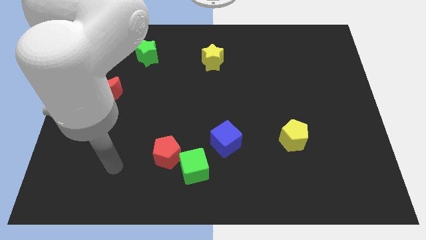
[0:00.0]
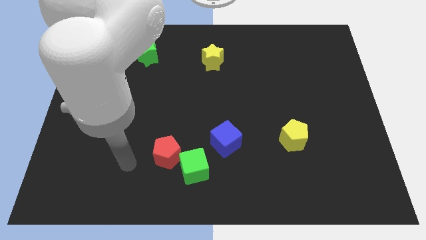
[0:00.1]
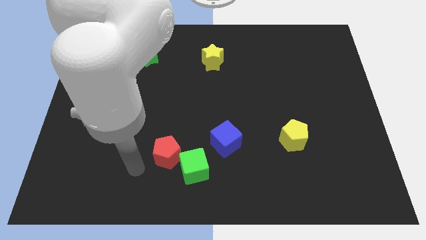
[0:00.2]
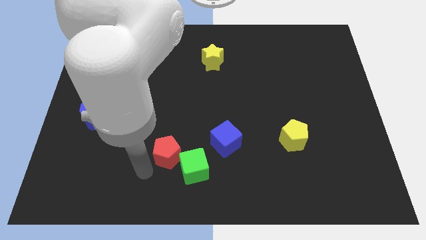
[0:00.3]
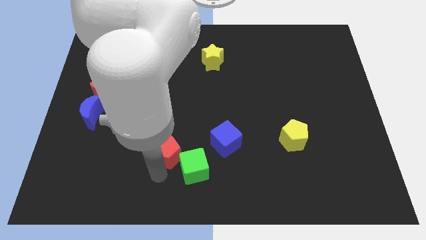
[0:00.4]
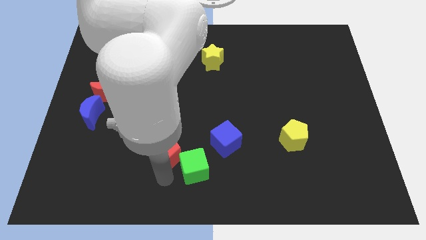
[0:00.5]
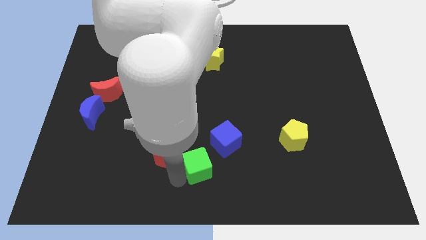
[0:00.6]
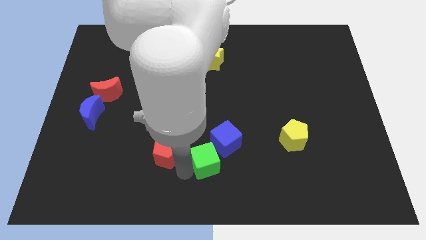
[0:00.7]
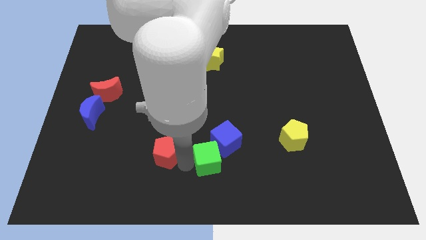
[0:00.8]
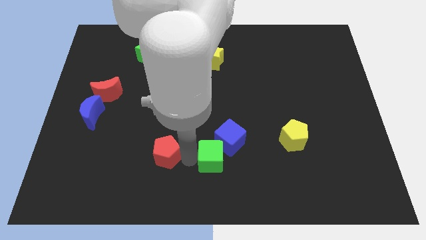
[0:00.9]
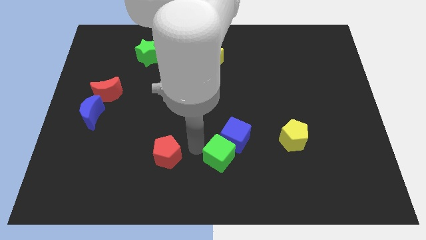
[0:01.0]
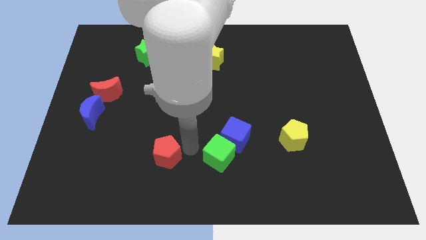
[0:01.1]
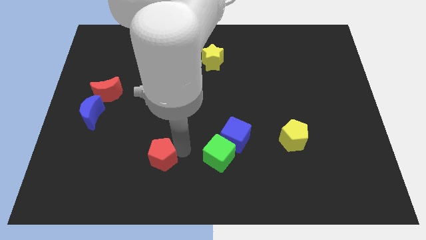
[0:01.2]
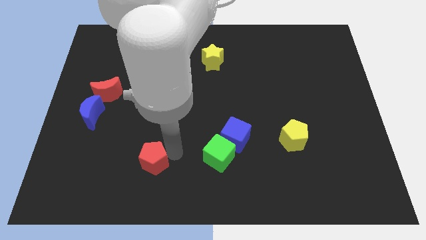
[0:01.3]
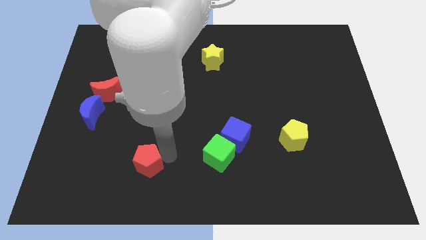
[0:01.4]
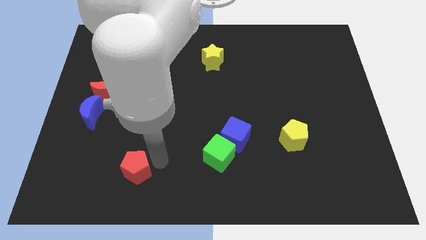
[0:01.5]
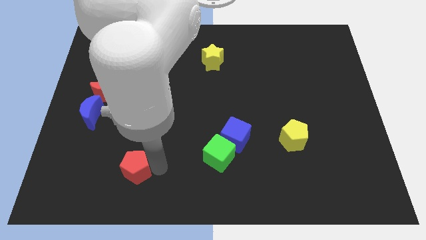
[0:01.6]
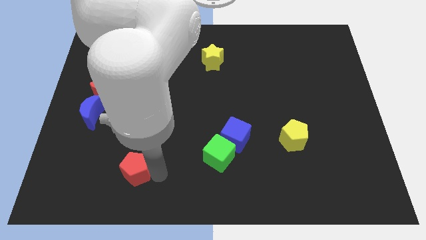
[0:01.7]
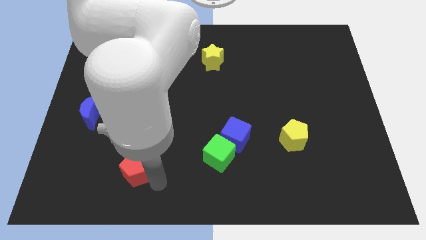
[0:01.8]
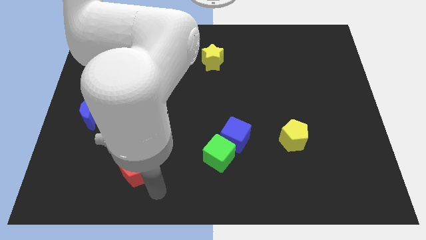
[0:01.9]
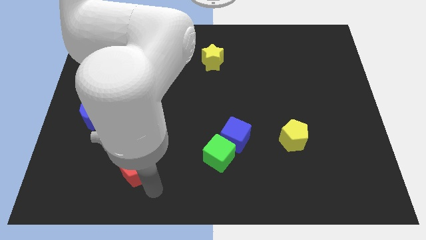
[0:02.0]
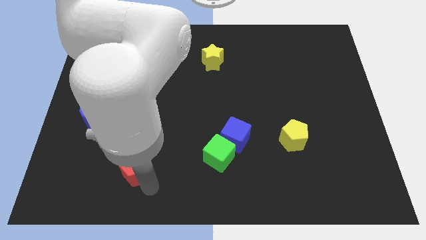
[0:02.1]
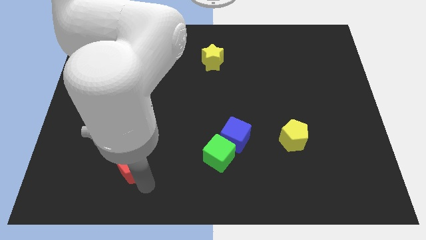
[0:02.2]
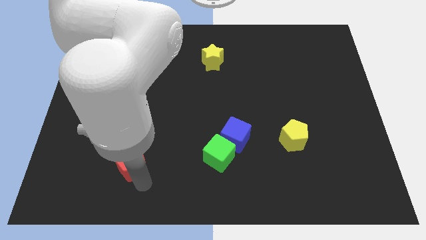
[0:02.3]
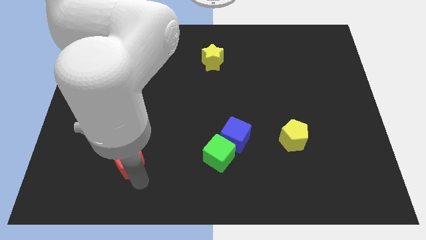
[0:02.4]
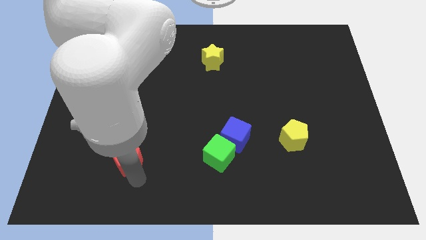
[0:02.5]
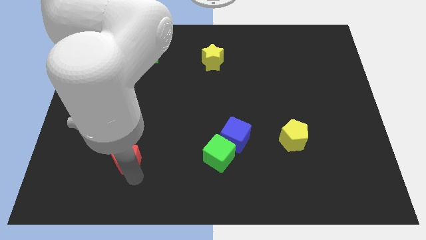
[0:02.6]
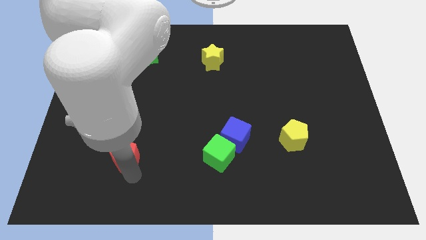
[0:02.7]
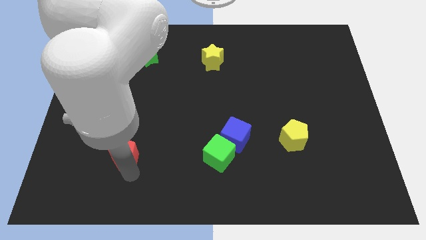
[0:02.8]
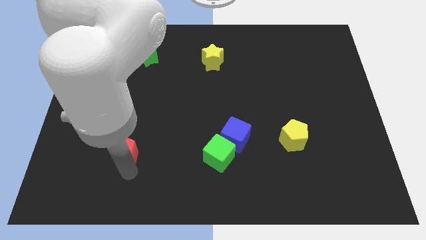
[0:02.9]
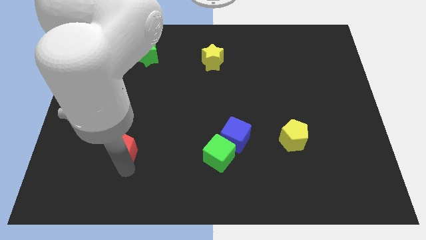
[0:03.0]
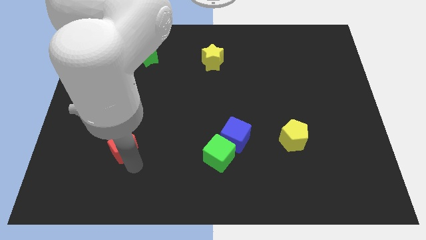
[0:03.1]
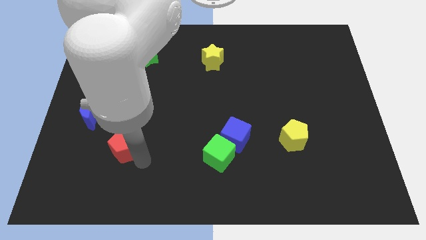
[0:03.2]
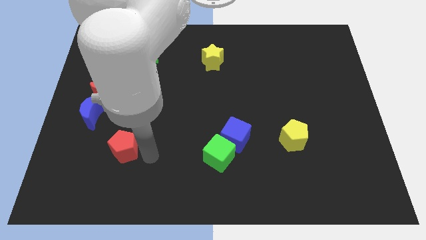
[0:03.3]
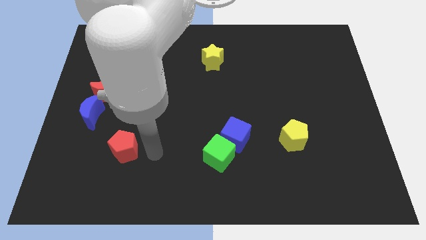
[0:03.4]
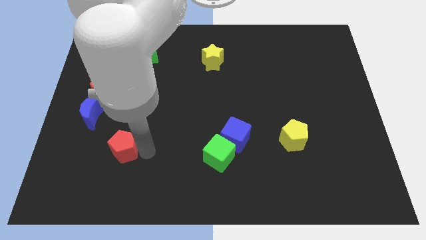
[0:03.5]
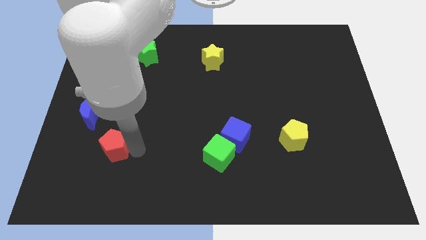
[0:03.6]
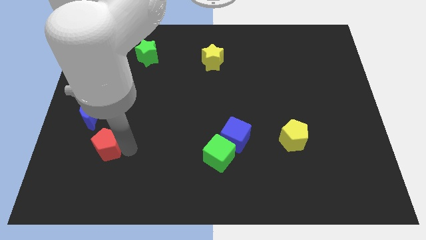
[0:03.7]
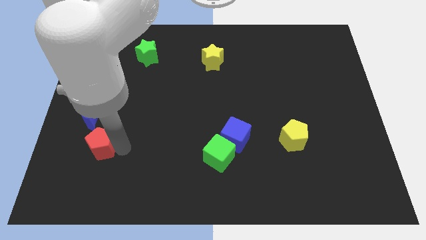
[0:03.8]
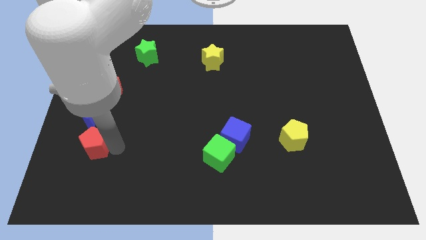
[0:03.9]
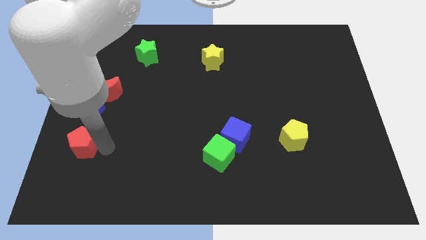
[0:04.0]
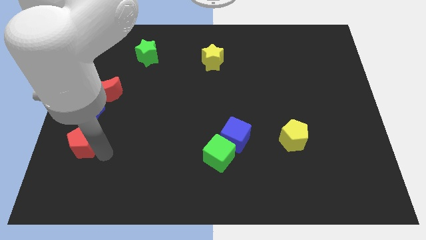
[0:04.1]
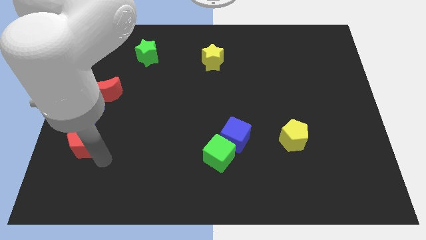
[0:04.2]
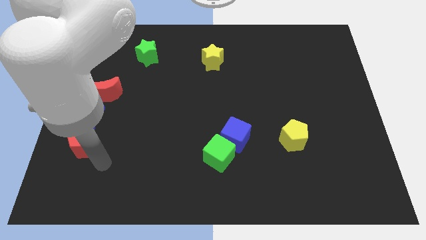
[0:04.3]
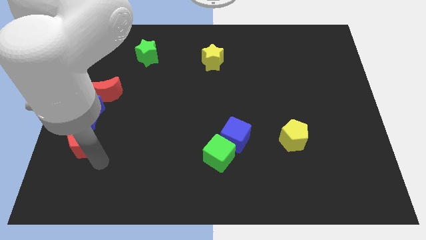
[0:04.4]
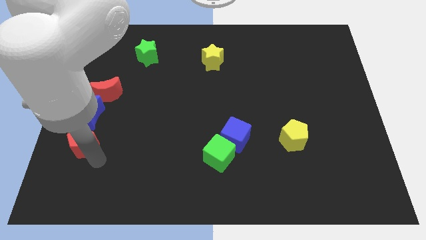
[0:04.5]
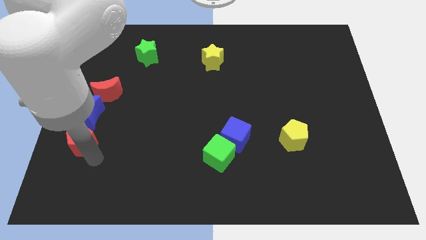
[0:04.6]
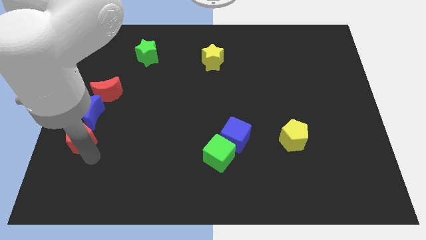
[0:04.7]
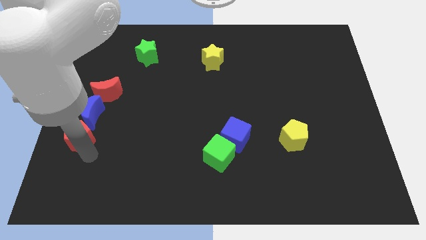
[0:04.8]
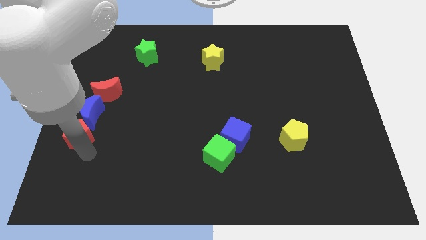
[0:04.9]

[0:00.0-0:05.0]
slide the red pentagon to the left side of the board

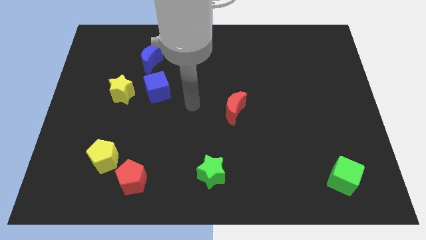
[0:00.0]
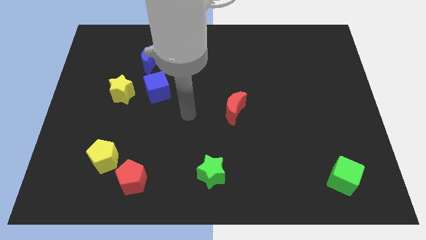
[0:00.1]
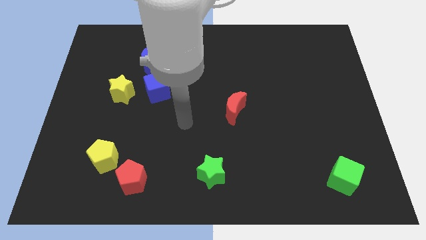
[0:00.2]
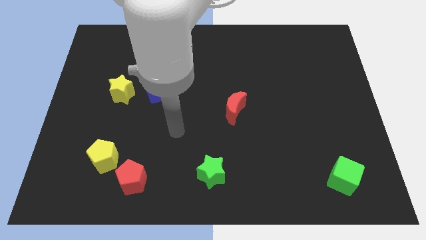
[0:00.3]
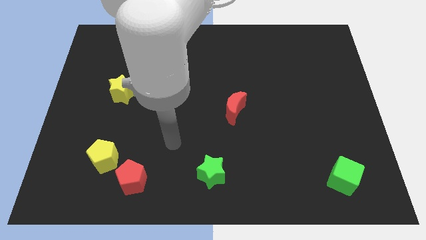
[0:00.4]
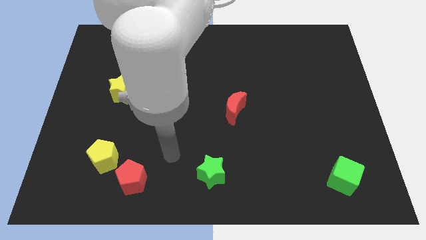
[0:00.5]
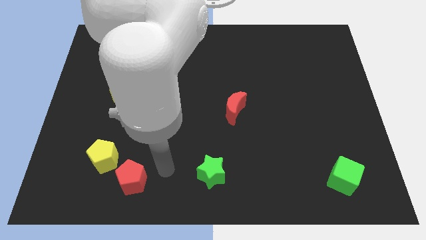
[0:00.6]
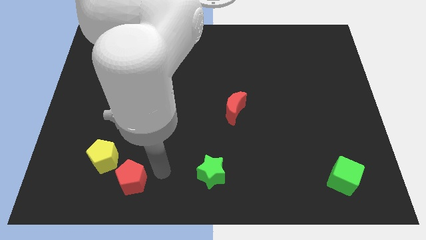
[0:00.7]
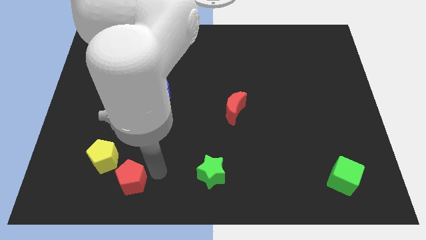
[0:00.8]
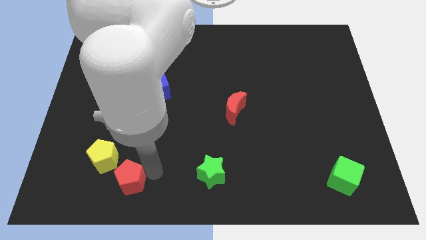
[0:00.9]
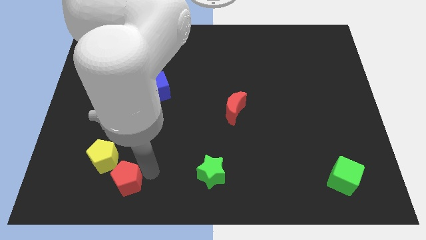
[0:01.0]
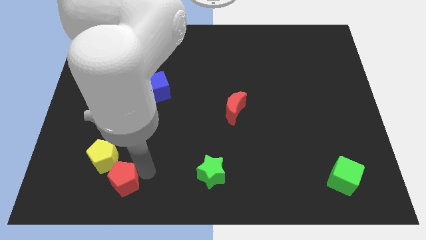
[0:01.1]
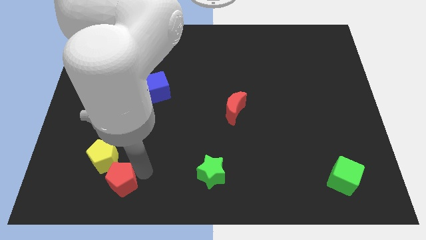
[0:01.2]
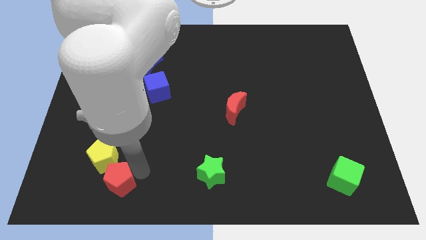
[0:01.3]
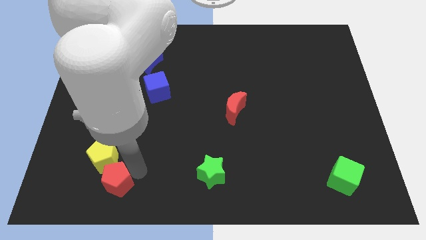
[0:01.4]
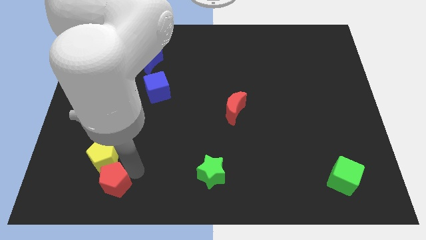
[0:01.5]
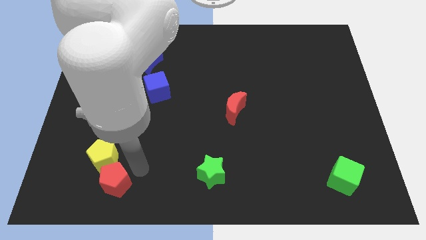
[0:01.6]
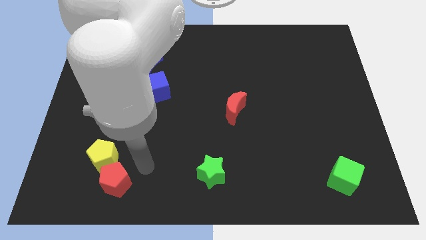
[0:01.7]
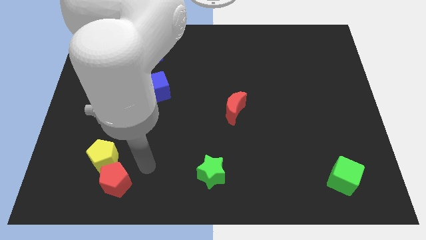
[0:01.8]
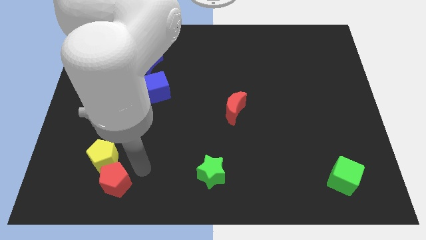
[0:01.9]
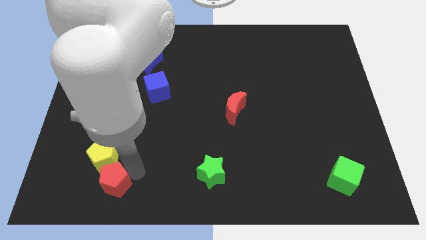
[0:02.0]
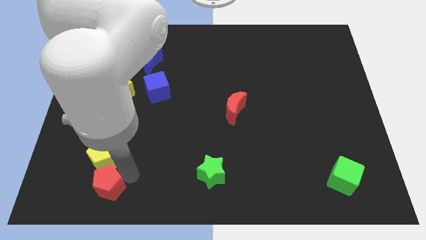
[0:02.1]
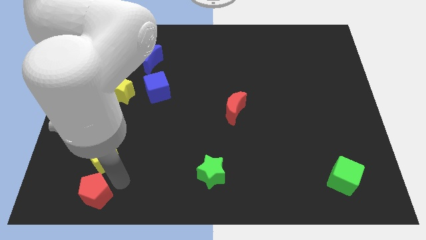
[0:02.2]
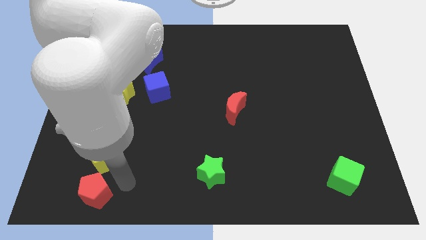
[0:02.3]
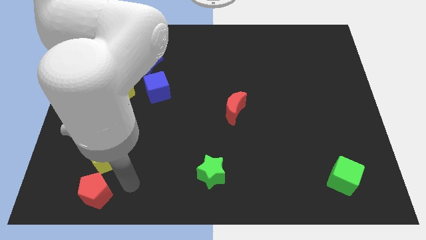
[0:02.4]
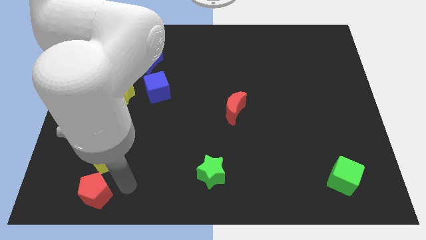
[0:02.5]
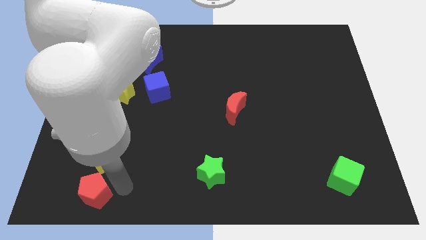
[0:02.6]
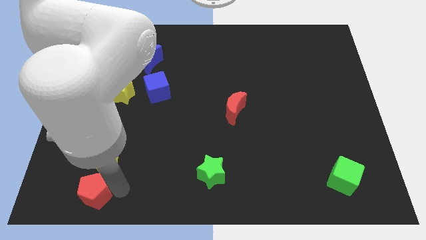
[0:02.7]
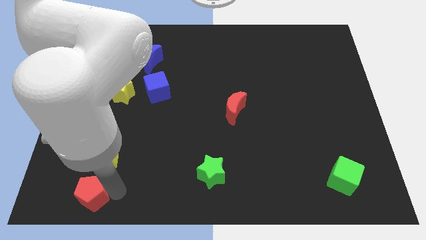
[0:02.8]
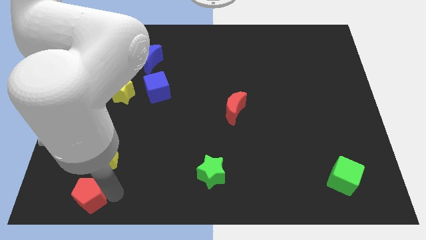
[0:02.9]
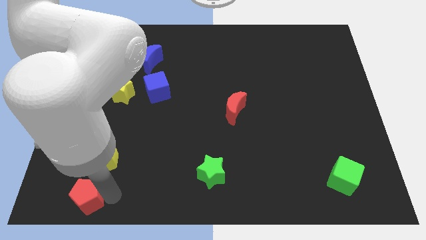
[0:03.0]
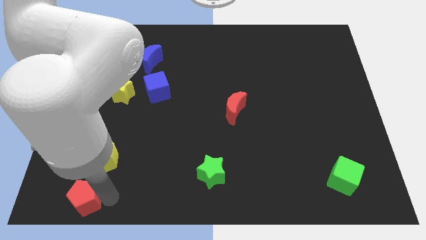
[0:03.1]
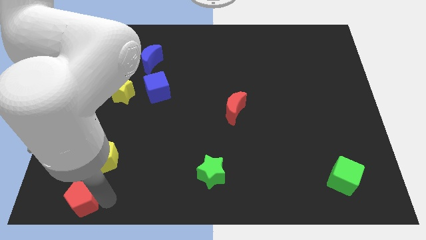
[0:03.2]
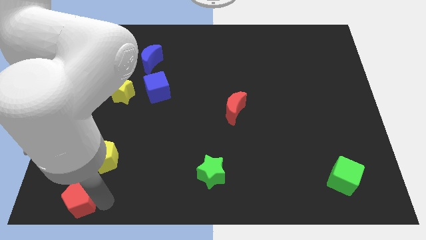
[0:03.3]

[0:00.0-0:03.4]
move the red pentagon to the bottom left corner
